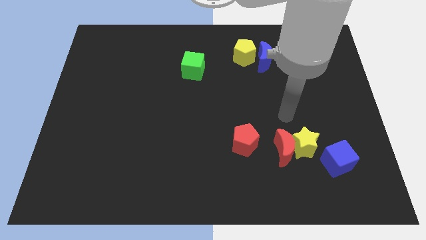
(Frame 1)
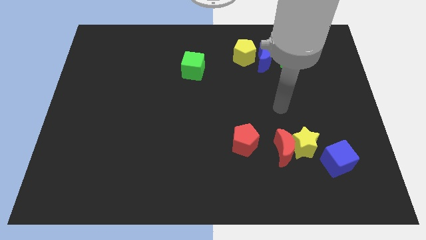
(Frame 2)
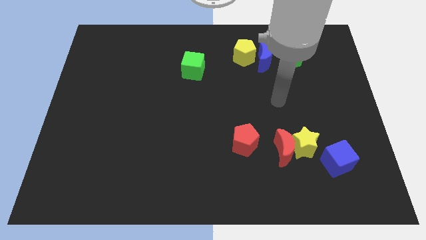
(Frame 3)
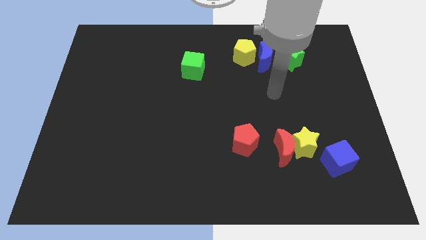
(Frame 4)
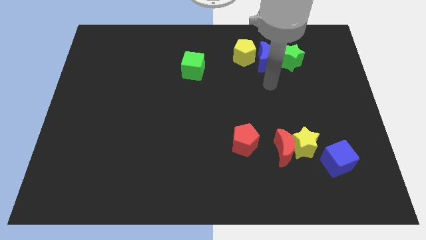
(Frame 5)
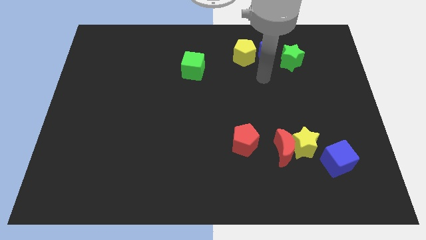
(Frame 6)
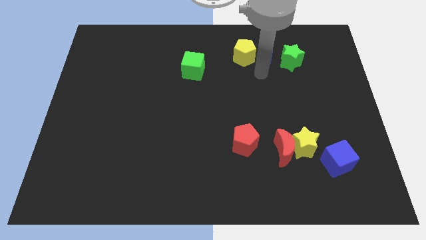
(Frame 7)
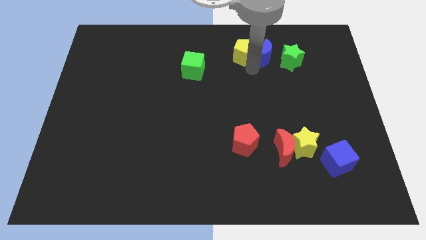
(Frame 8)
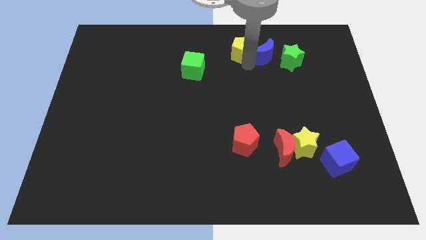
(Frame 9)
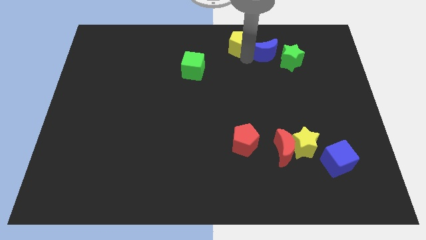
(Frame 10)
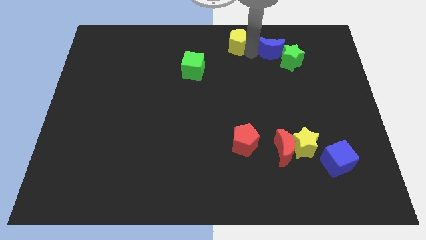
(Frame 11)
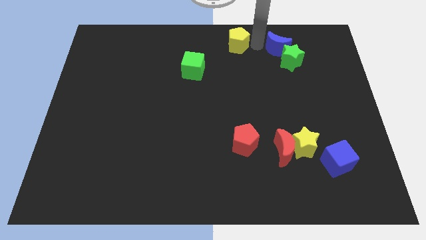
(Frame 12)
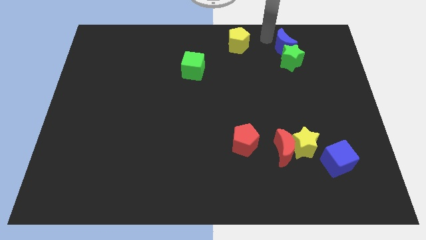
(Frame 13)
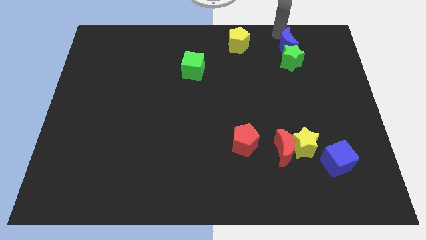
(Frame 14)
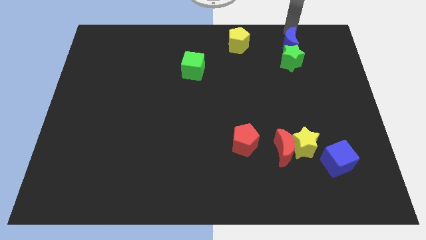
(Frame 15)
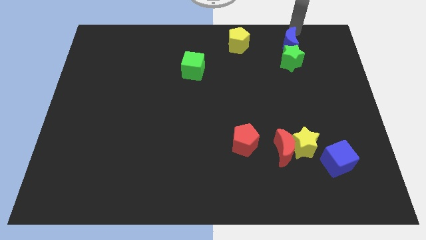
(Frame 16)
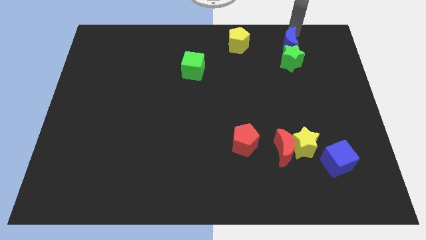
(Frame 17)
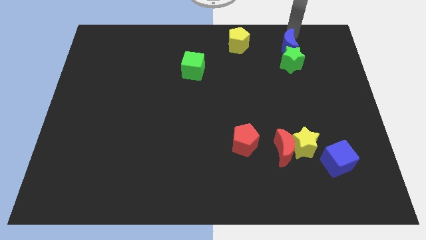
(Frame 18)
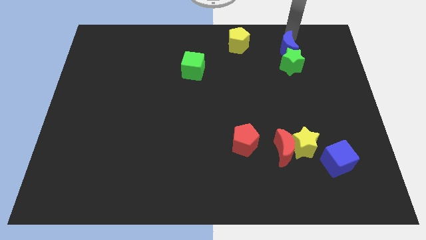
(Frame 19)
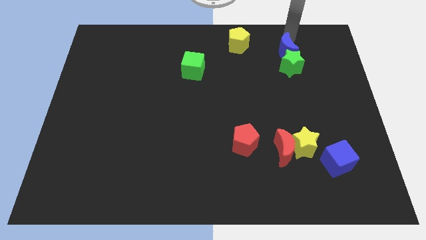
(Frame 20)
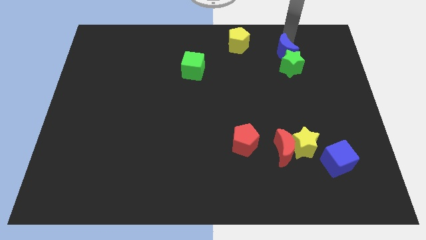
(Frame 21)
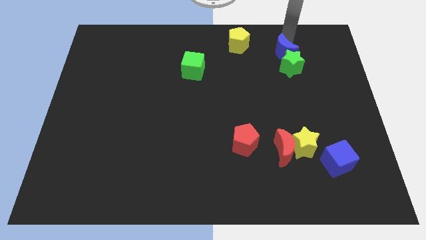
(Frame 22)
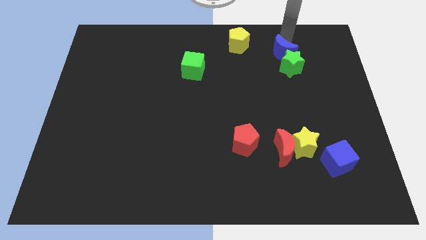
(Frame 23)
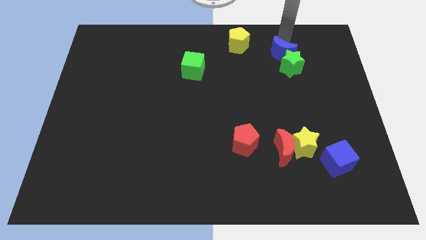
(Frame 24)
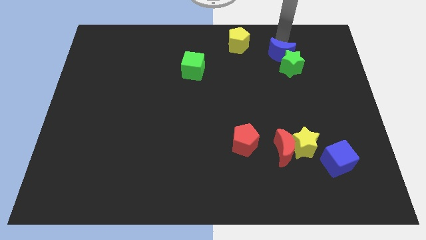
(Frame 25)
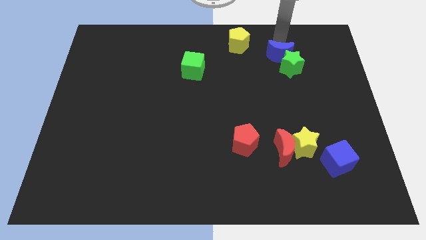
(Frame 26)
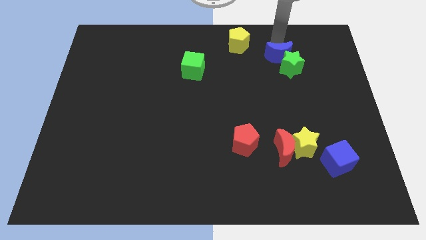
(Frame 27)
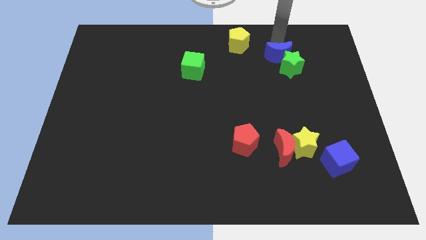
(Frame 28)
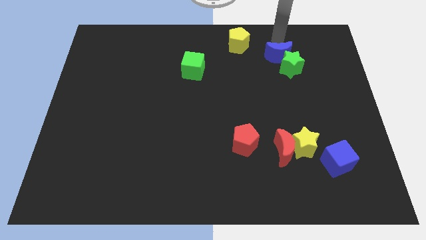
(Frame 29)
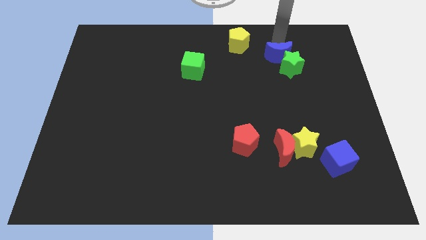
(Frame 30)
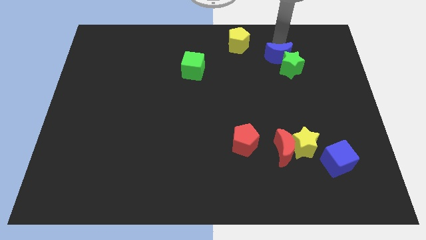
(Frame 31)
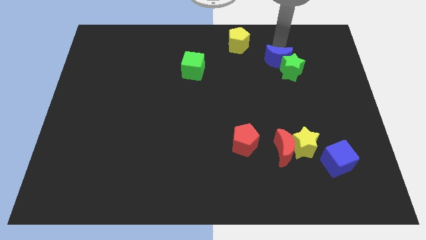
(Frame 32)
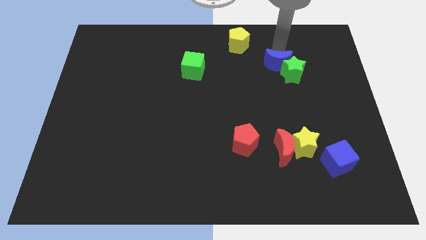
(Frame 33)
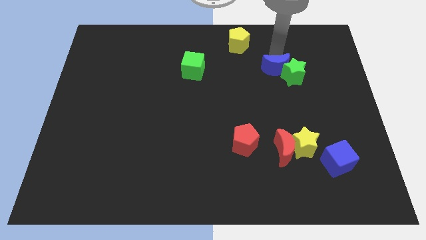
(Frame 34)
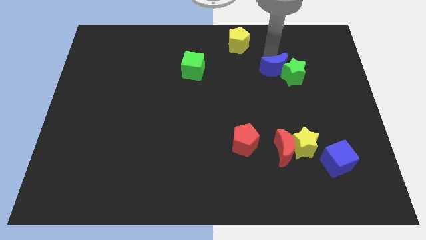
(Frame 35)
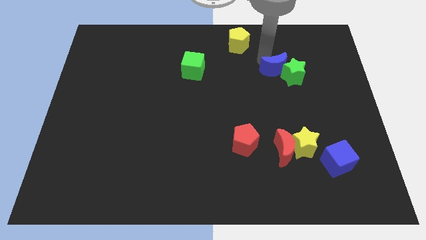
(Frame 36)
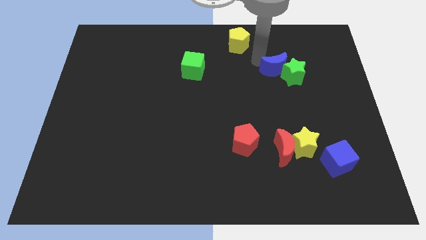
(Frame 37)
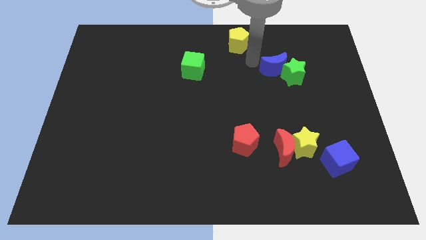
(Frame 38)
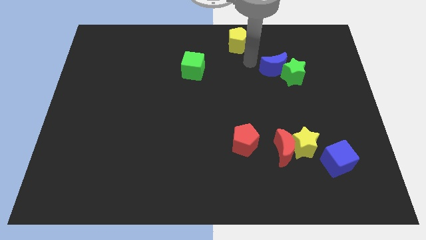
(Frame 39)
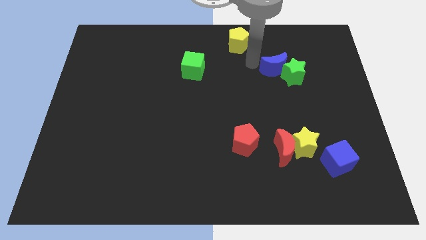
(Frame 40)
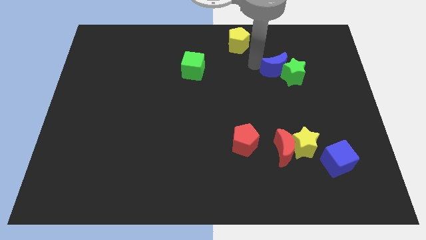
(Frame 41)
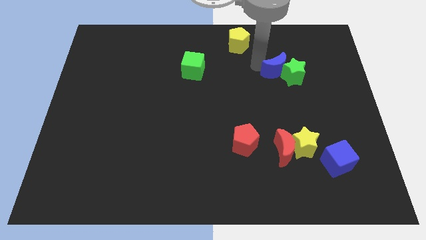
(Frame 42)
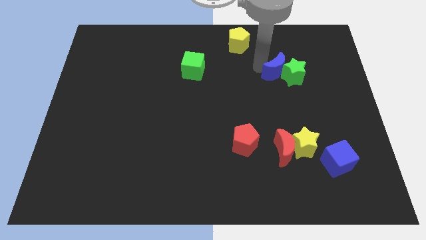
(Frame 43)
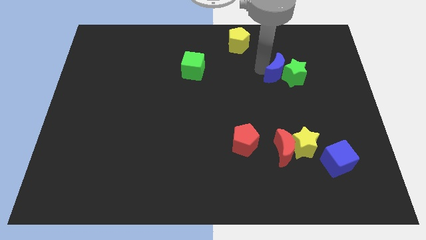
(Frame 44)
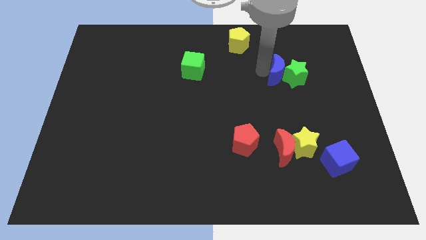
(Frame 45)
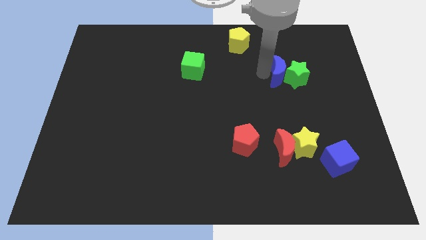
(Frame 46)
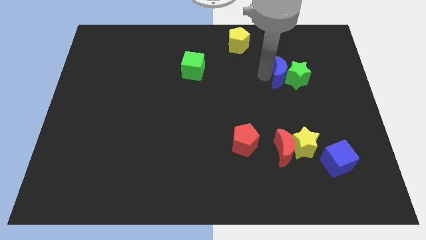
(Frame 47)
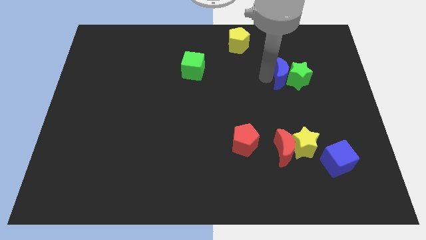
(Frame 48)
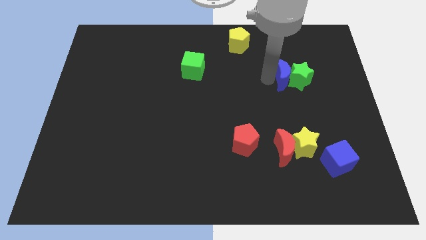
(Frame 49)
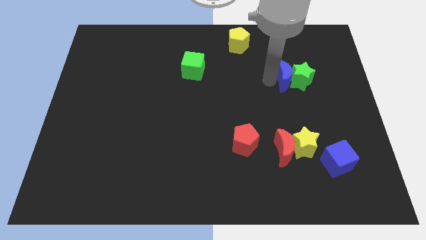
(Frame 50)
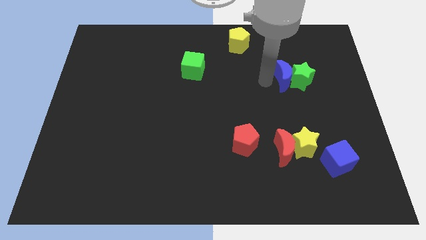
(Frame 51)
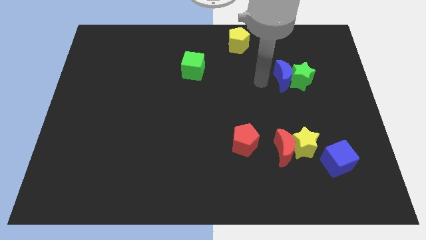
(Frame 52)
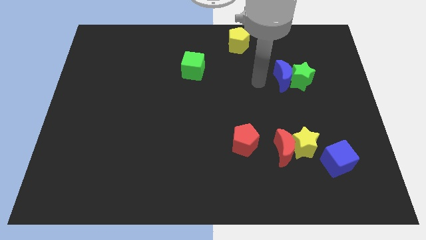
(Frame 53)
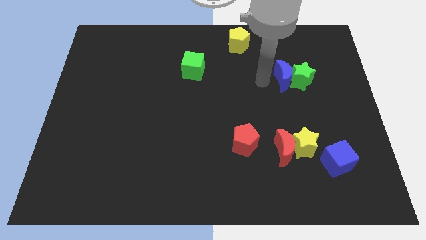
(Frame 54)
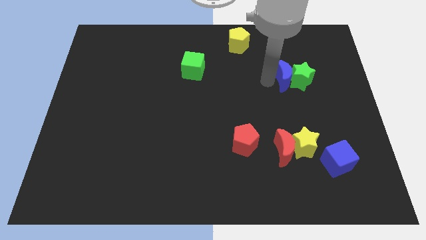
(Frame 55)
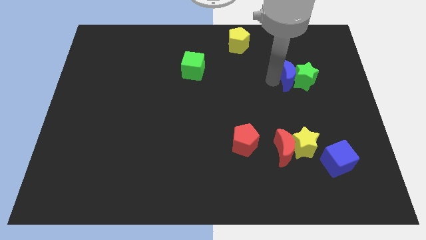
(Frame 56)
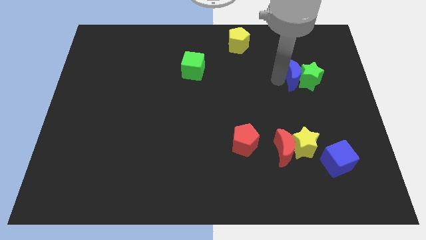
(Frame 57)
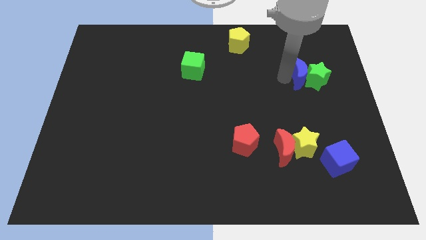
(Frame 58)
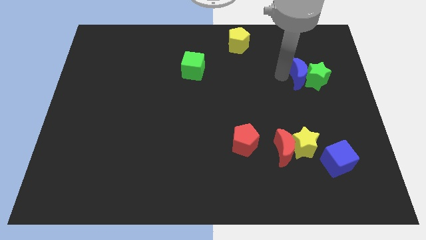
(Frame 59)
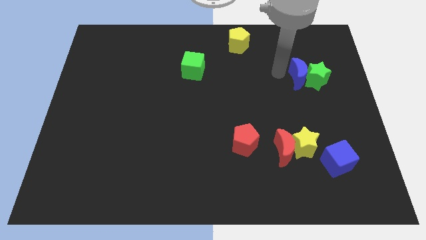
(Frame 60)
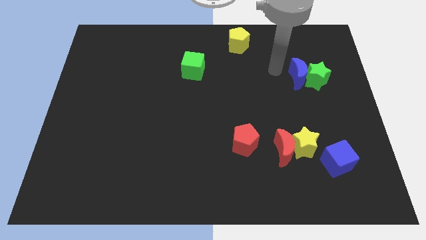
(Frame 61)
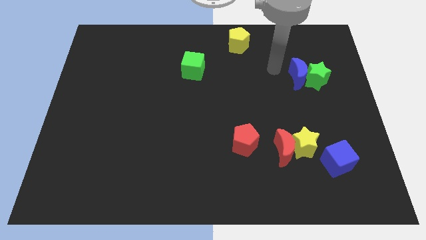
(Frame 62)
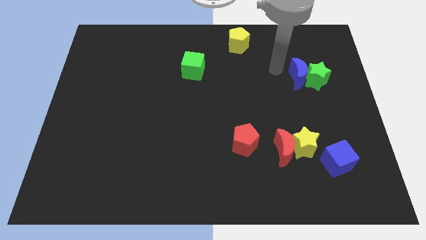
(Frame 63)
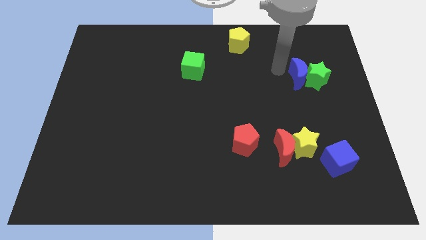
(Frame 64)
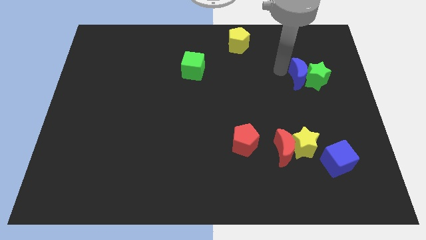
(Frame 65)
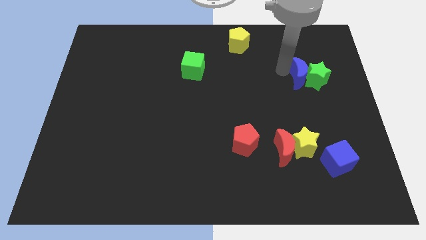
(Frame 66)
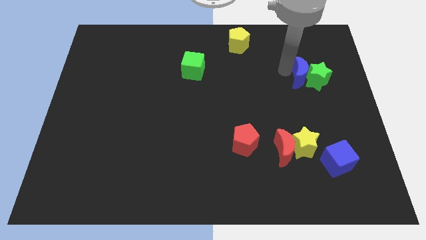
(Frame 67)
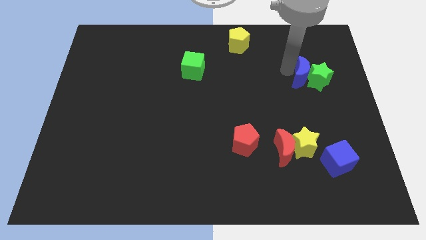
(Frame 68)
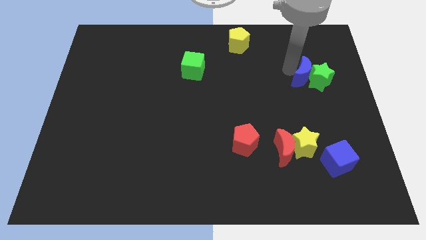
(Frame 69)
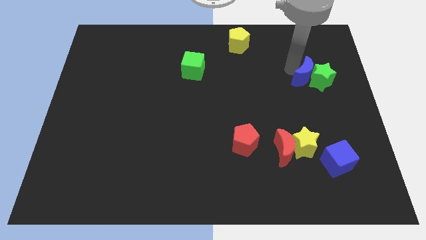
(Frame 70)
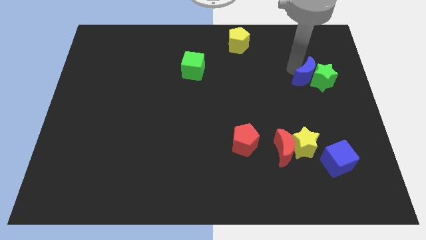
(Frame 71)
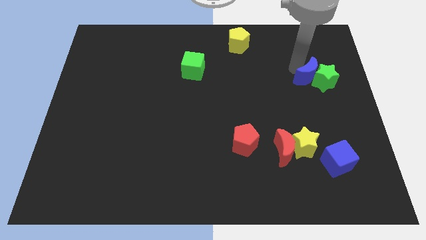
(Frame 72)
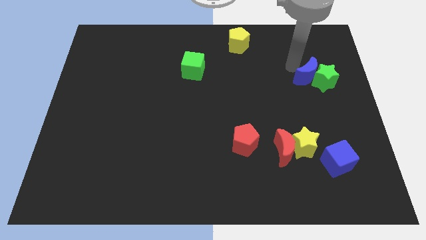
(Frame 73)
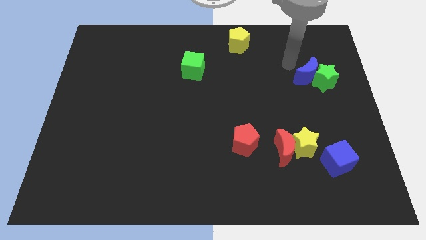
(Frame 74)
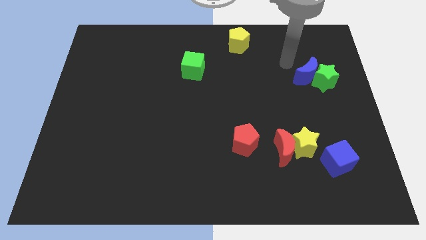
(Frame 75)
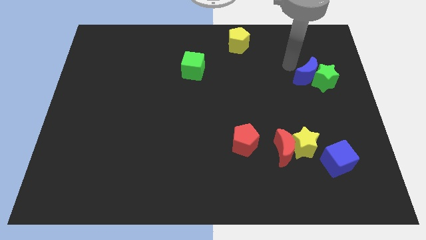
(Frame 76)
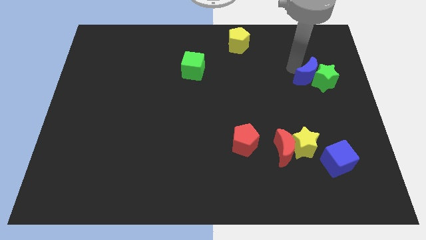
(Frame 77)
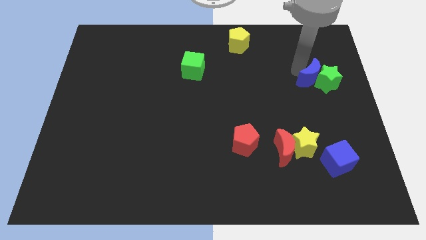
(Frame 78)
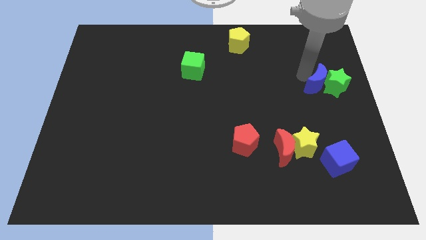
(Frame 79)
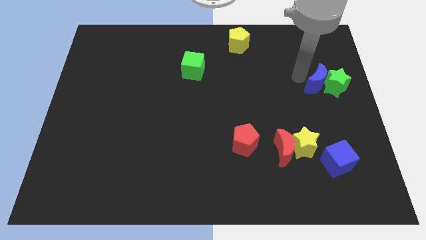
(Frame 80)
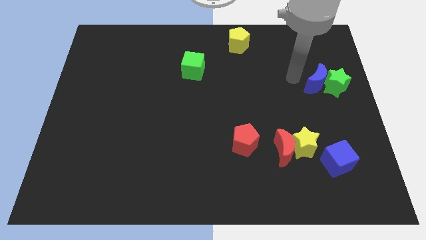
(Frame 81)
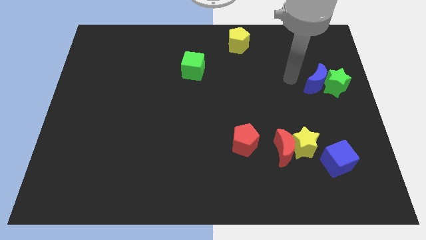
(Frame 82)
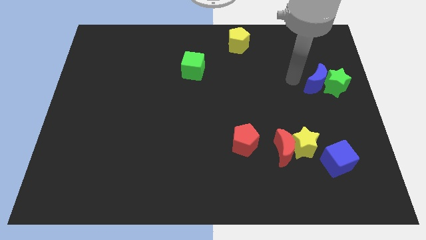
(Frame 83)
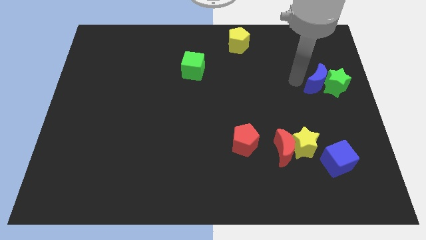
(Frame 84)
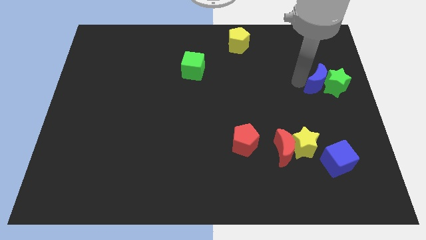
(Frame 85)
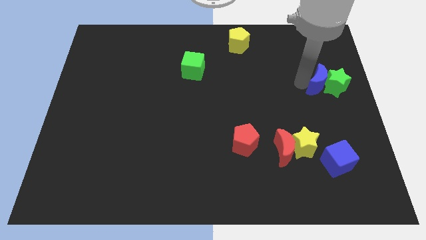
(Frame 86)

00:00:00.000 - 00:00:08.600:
push the blue moon to the right side of the board
